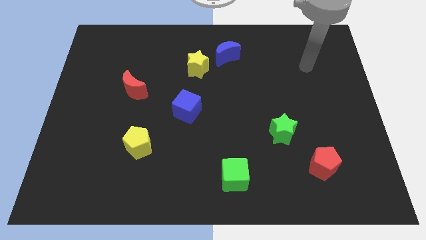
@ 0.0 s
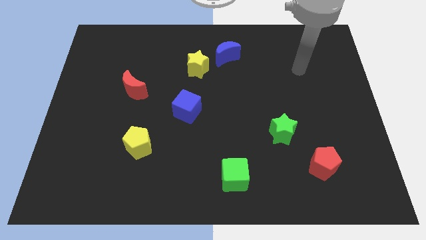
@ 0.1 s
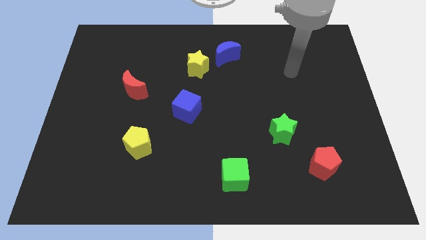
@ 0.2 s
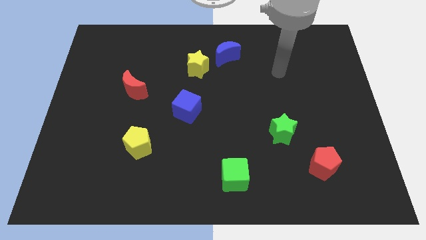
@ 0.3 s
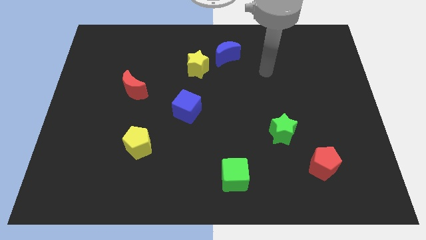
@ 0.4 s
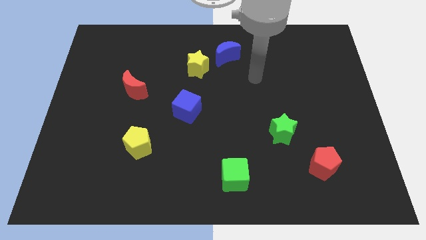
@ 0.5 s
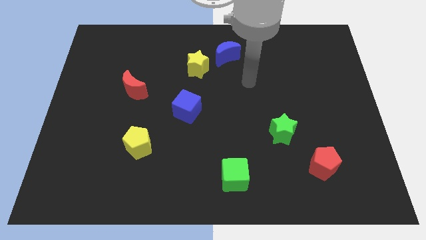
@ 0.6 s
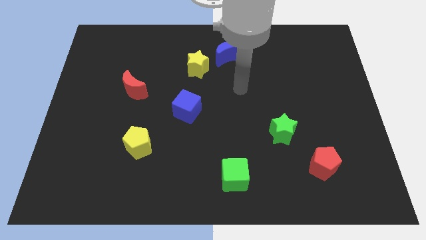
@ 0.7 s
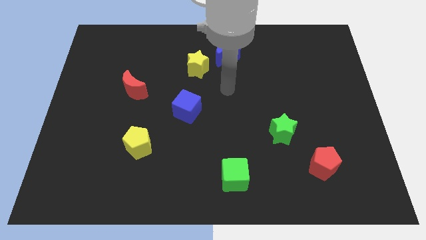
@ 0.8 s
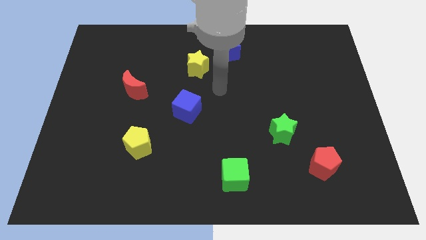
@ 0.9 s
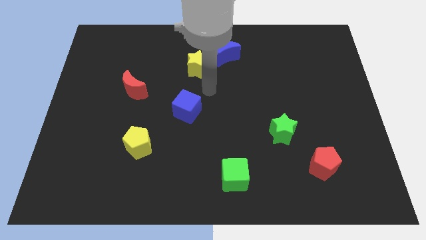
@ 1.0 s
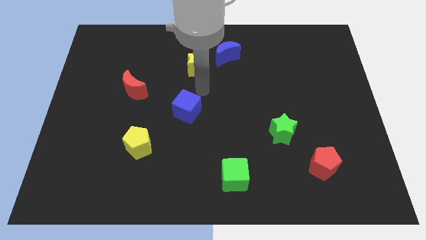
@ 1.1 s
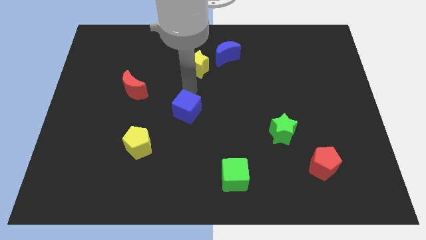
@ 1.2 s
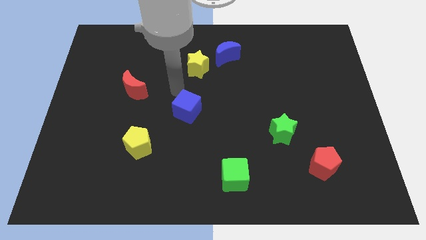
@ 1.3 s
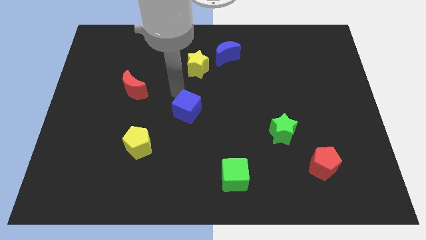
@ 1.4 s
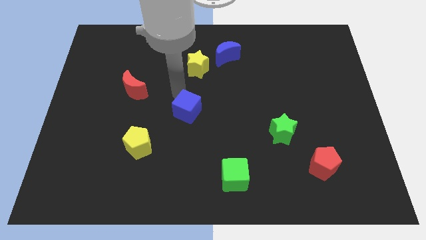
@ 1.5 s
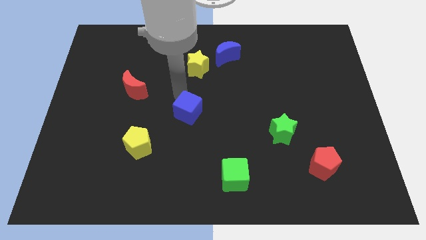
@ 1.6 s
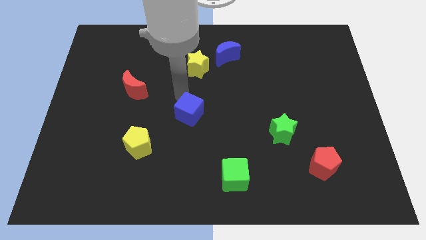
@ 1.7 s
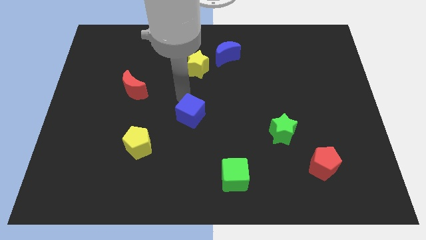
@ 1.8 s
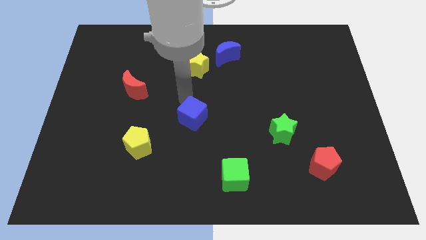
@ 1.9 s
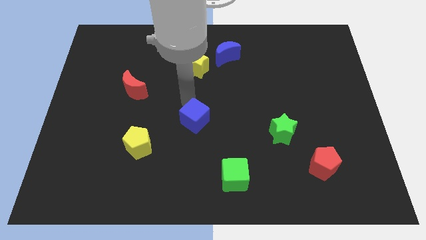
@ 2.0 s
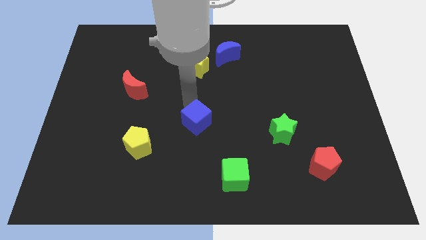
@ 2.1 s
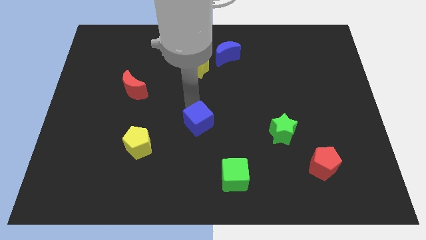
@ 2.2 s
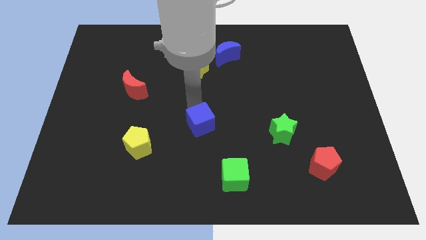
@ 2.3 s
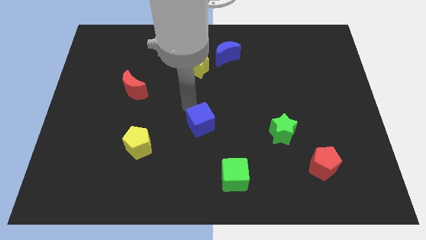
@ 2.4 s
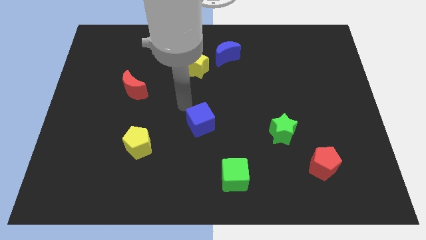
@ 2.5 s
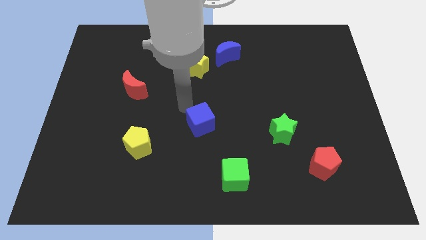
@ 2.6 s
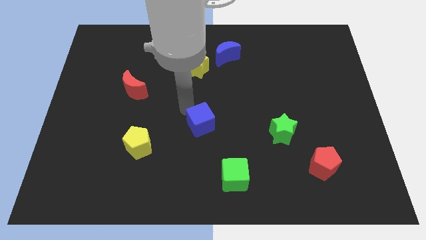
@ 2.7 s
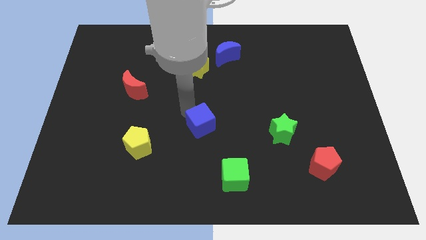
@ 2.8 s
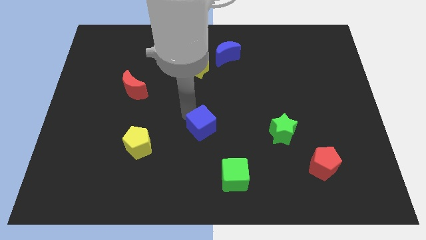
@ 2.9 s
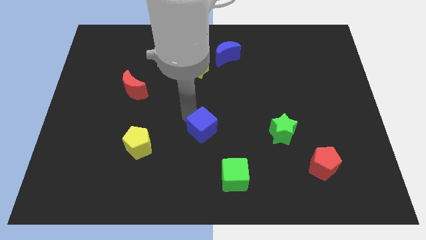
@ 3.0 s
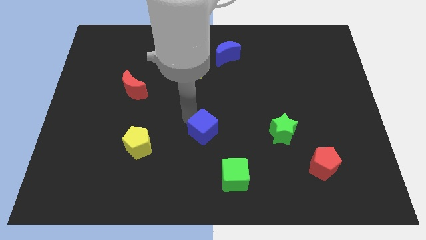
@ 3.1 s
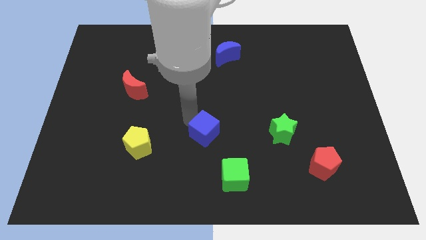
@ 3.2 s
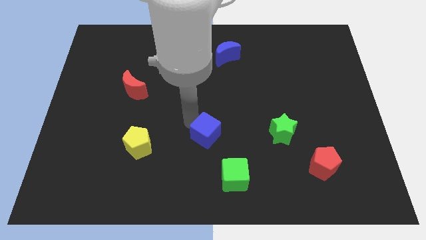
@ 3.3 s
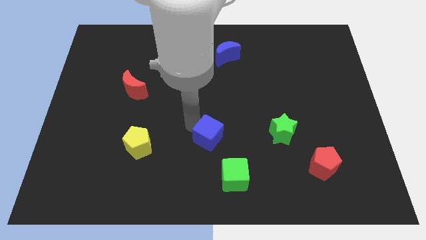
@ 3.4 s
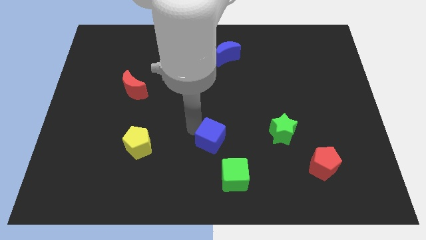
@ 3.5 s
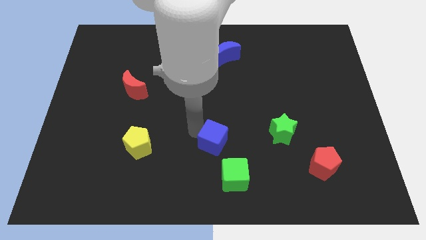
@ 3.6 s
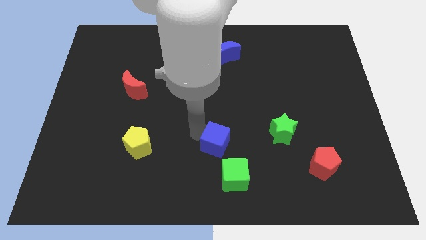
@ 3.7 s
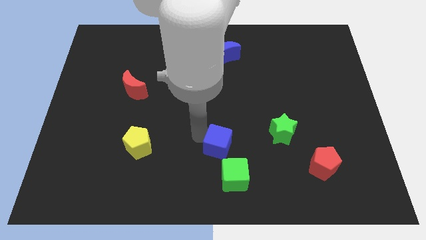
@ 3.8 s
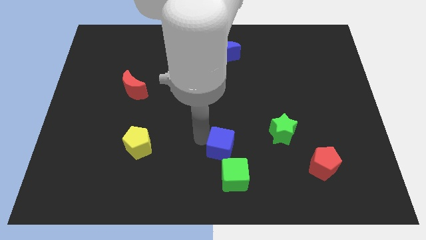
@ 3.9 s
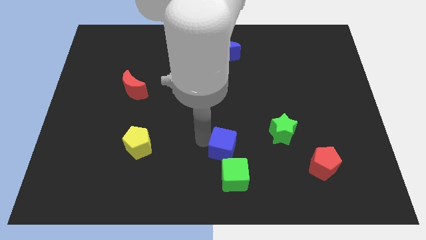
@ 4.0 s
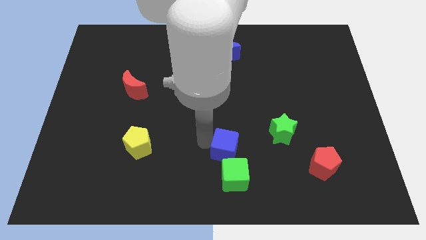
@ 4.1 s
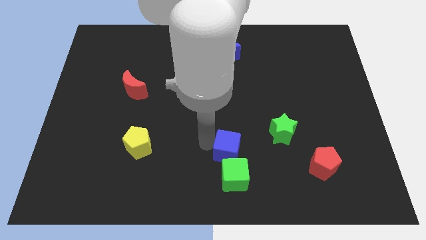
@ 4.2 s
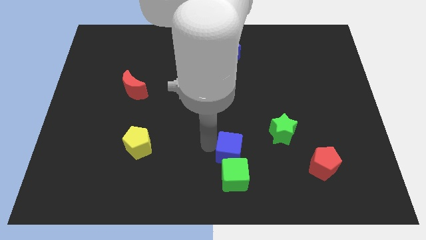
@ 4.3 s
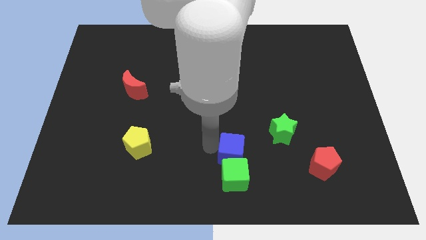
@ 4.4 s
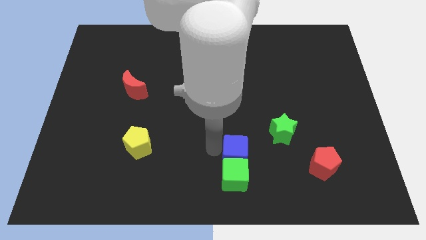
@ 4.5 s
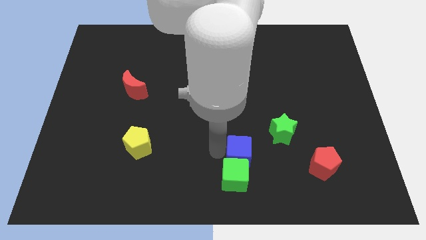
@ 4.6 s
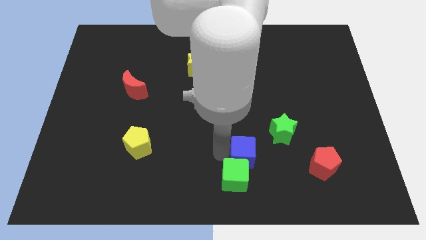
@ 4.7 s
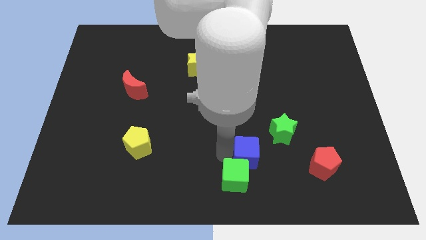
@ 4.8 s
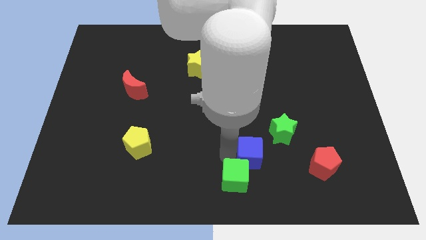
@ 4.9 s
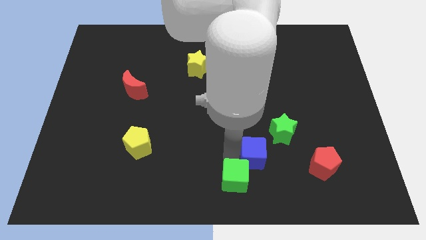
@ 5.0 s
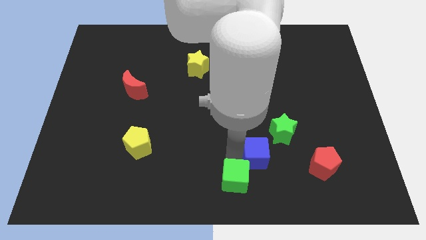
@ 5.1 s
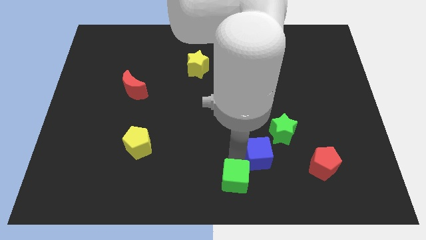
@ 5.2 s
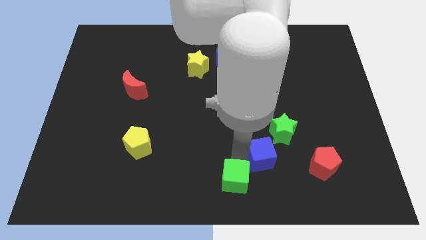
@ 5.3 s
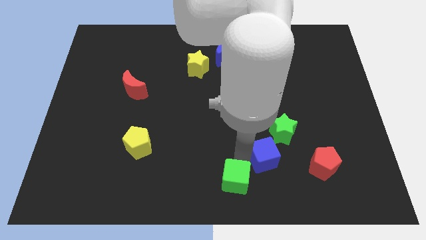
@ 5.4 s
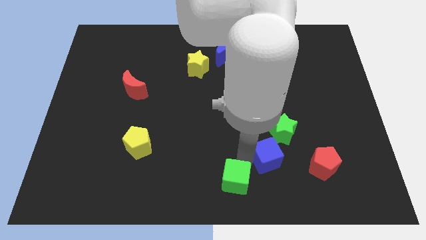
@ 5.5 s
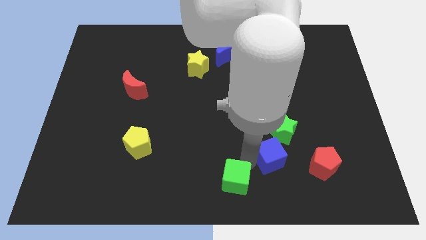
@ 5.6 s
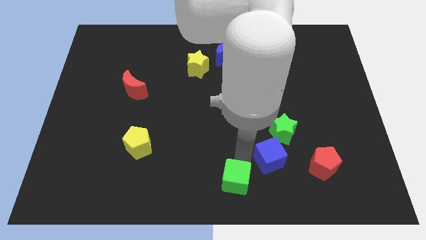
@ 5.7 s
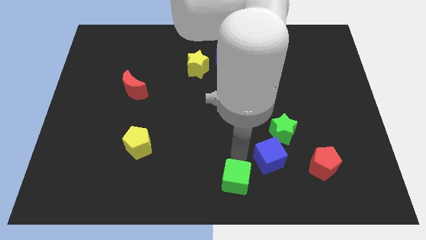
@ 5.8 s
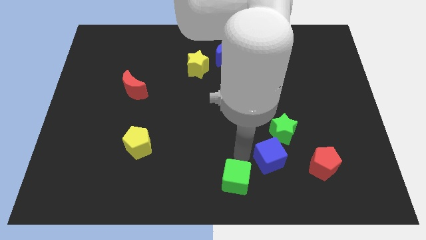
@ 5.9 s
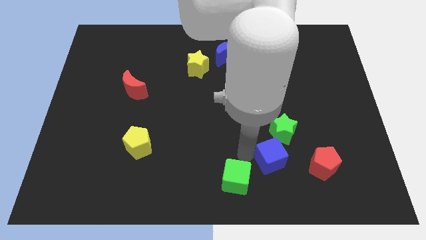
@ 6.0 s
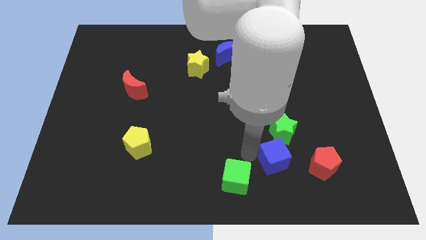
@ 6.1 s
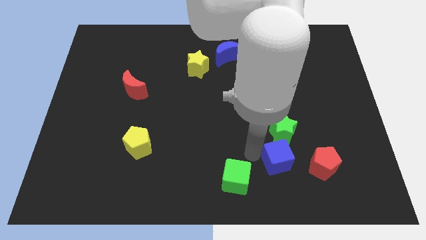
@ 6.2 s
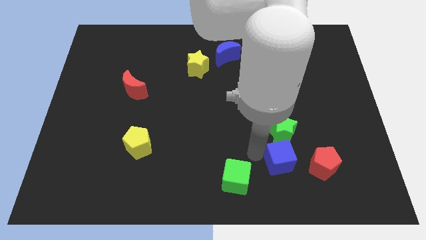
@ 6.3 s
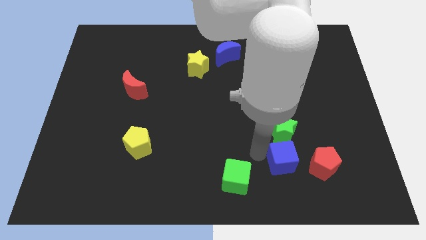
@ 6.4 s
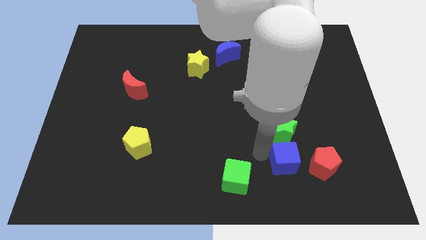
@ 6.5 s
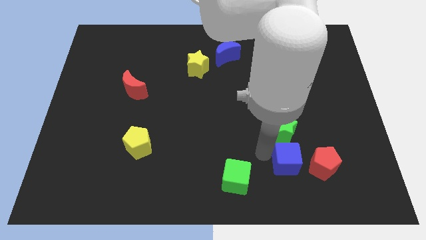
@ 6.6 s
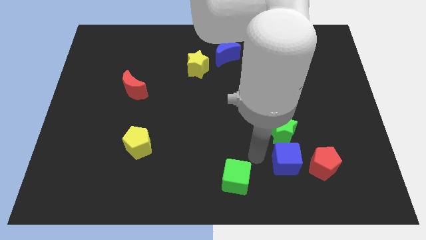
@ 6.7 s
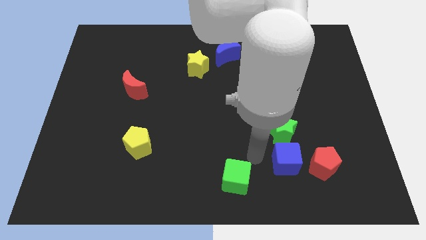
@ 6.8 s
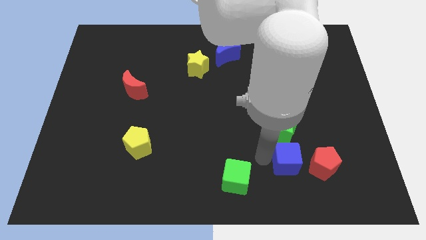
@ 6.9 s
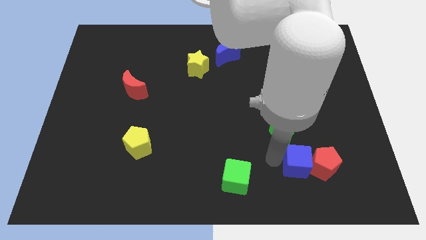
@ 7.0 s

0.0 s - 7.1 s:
put the blue cube to the red pentagon

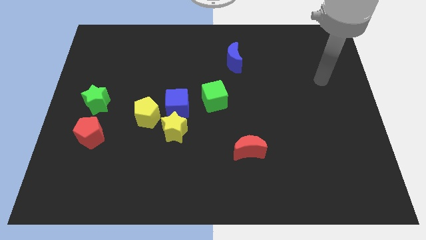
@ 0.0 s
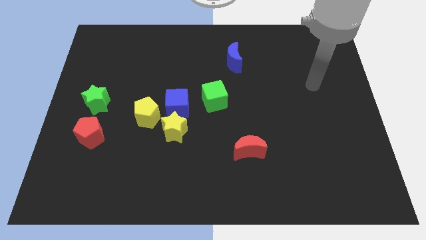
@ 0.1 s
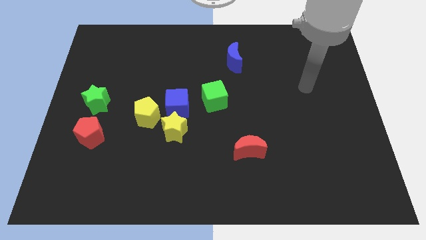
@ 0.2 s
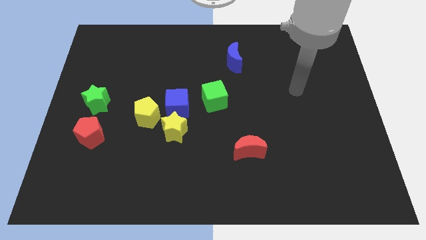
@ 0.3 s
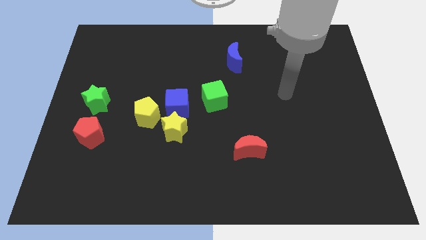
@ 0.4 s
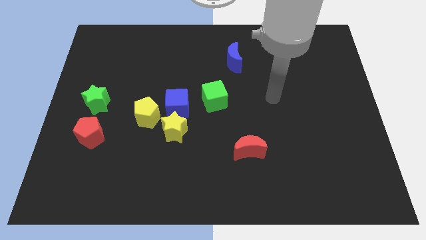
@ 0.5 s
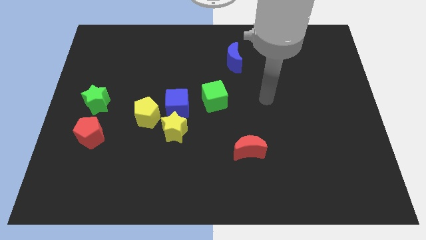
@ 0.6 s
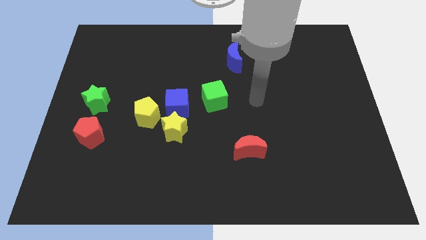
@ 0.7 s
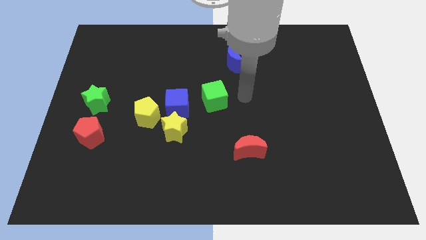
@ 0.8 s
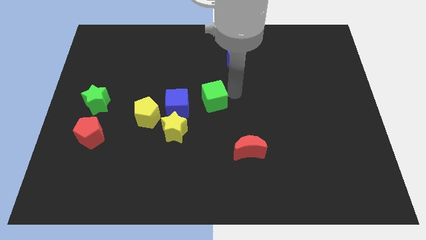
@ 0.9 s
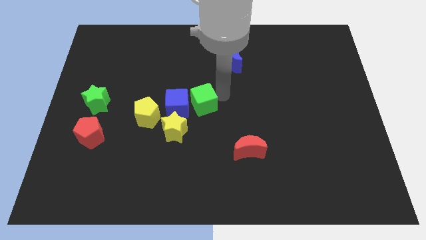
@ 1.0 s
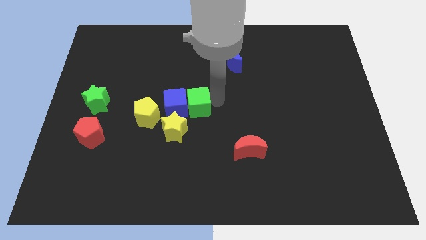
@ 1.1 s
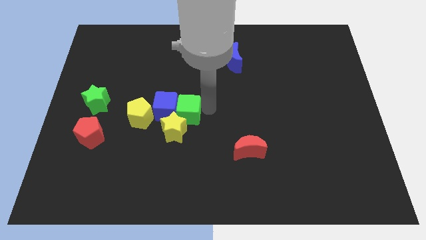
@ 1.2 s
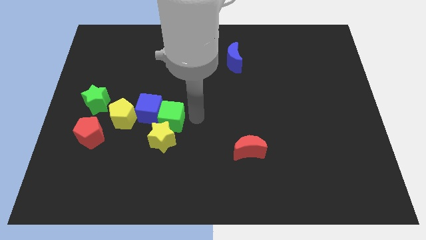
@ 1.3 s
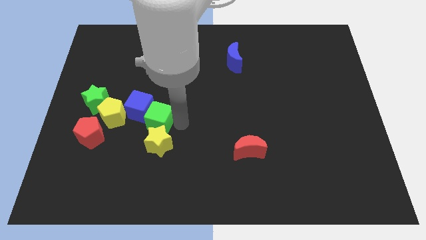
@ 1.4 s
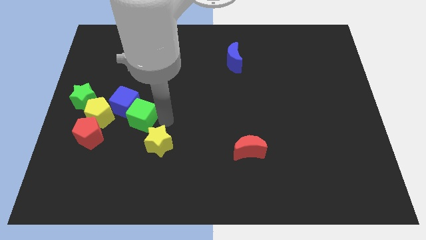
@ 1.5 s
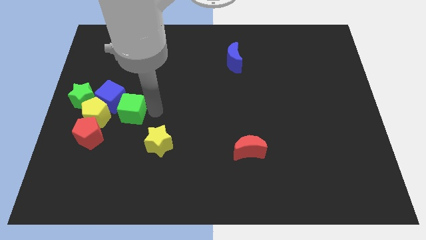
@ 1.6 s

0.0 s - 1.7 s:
move the blue cube close to the green star
